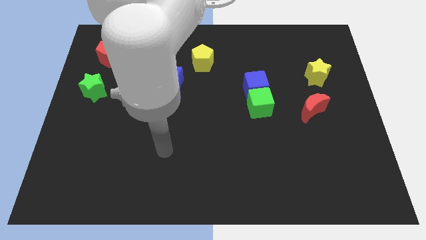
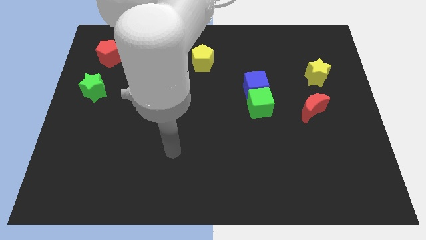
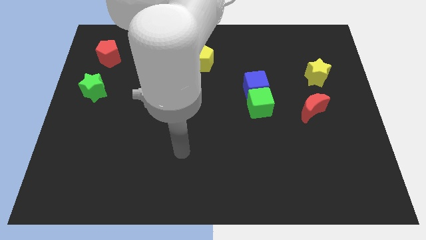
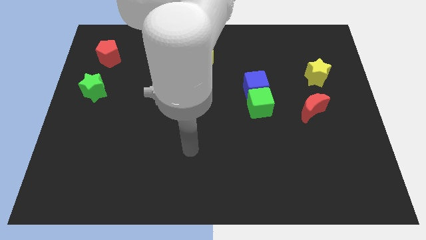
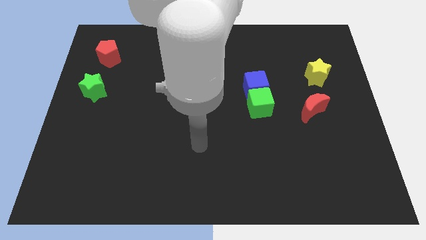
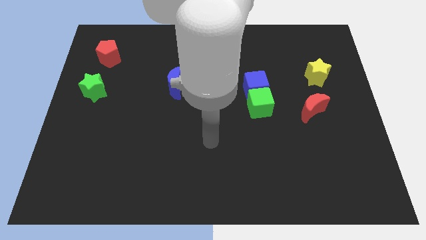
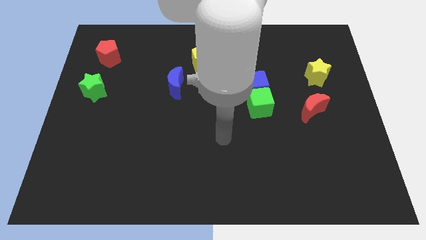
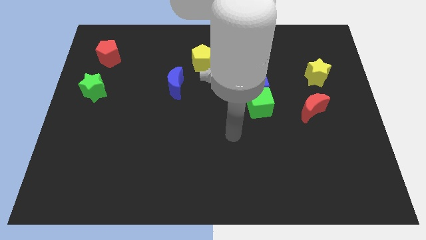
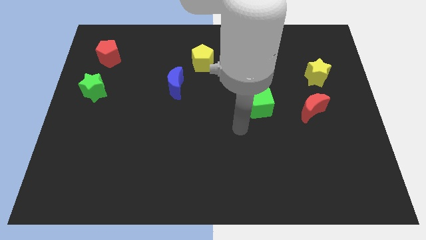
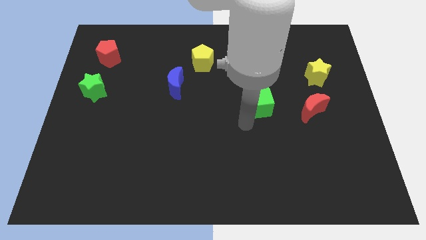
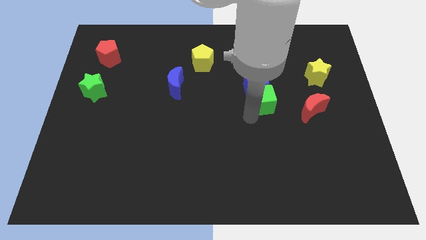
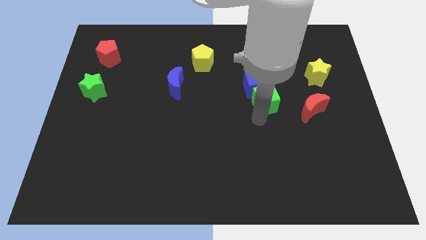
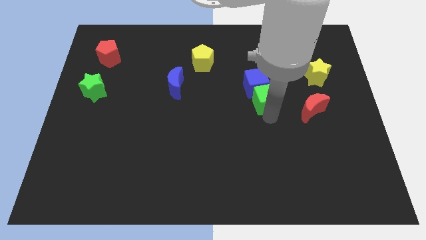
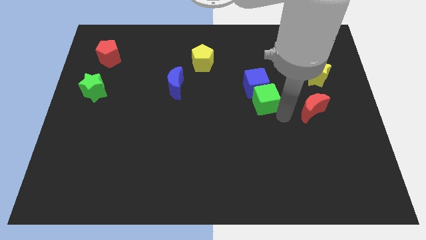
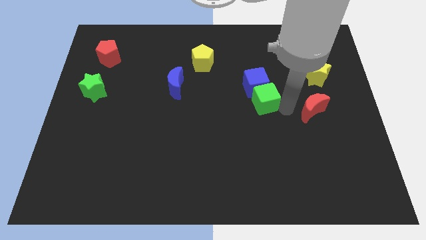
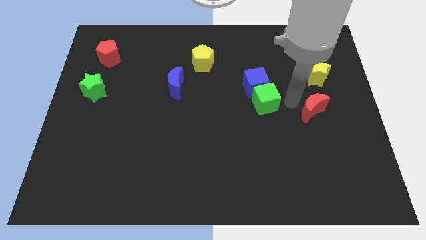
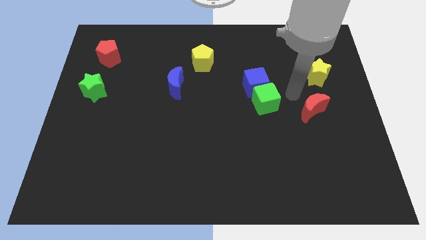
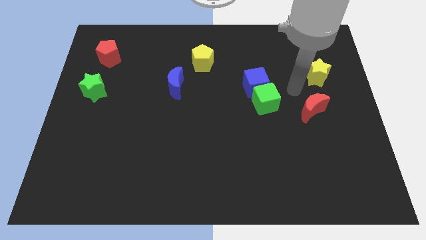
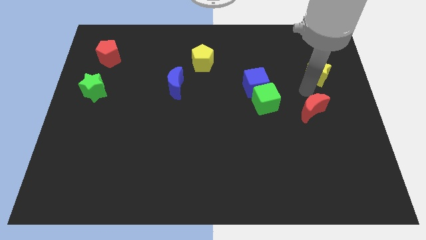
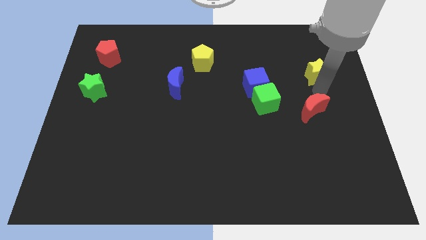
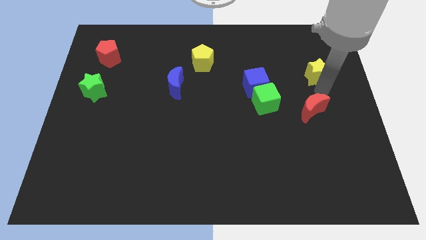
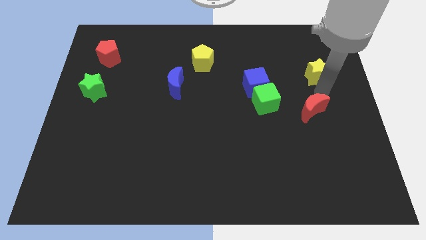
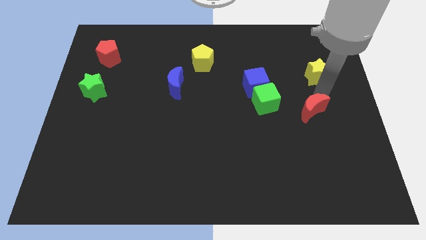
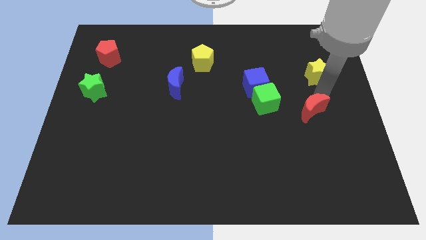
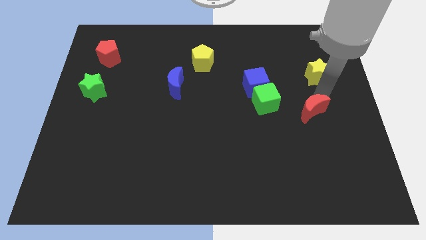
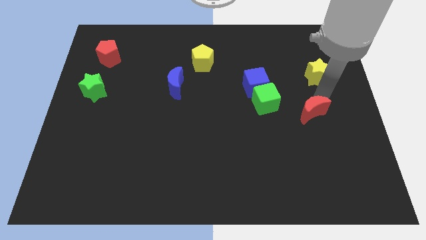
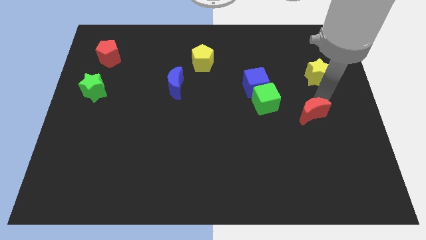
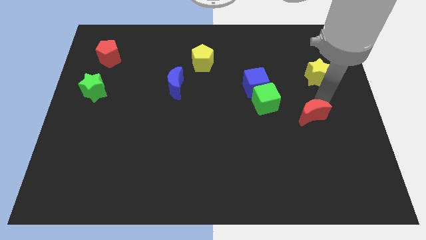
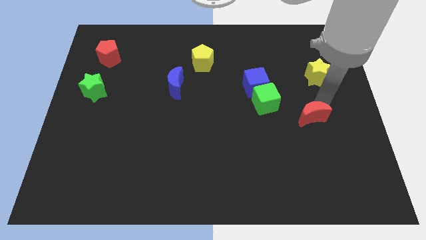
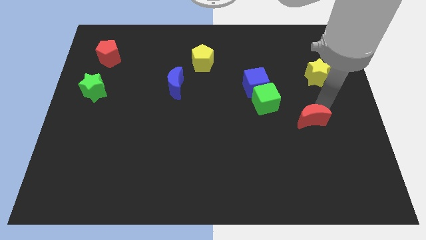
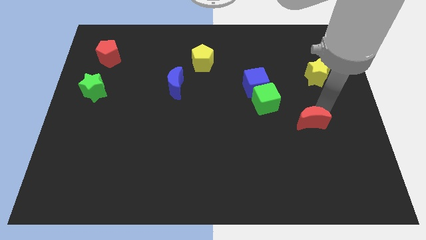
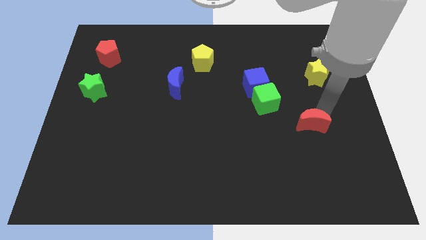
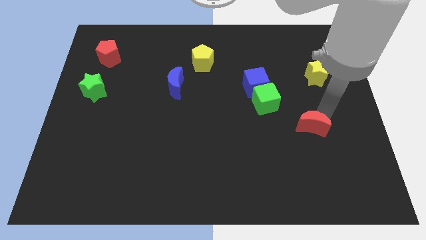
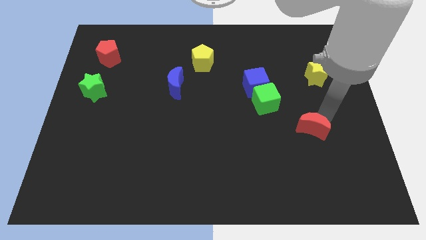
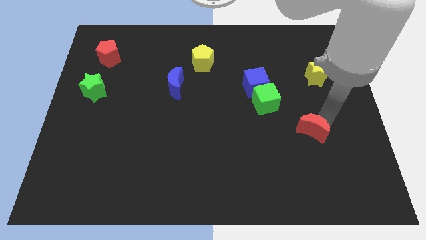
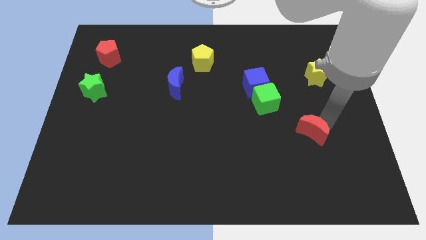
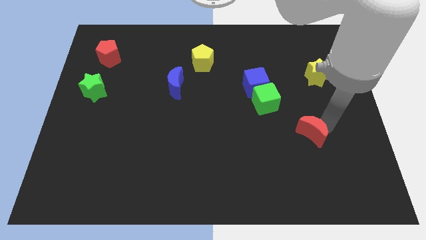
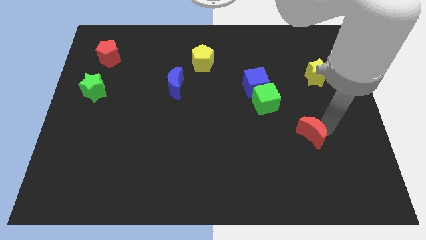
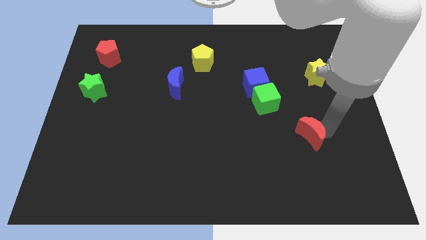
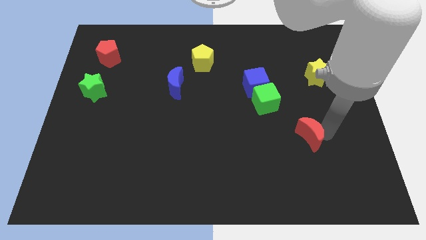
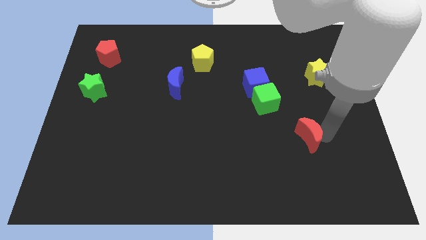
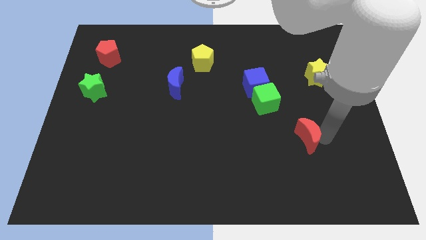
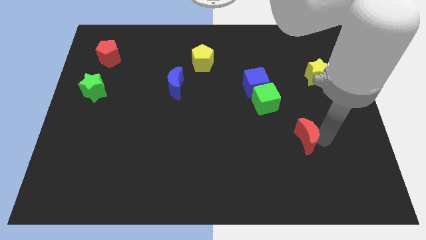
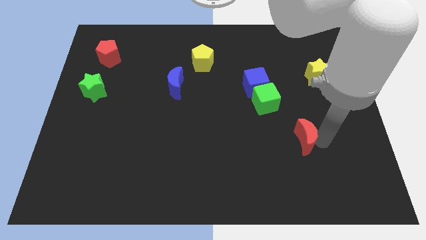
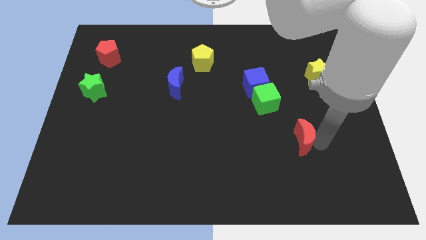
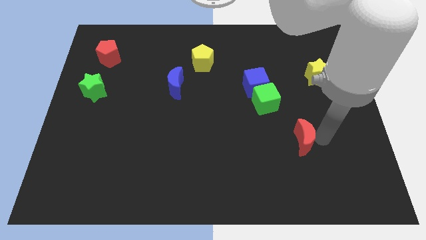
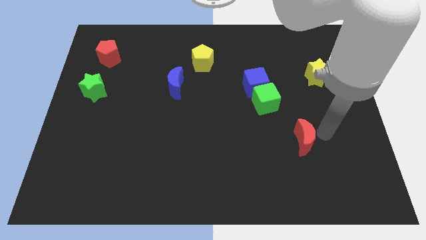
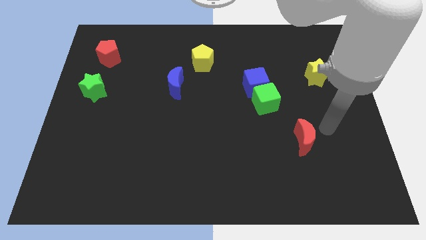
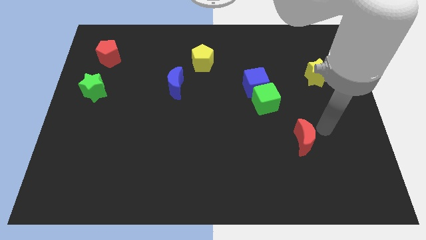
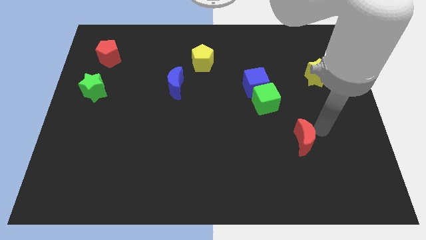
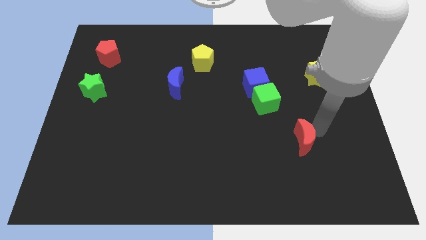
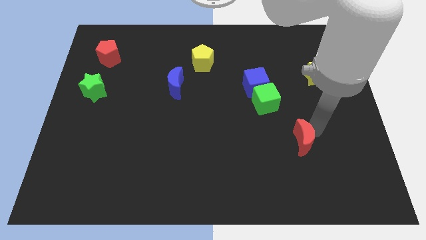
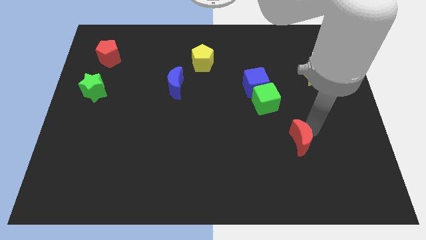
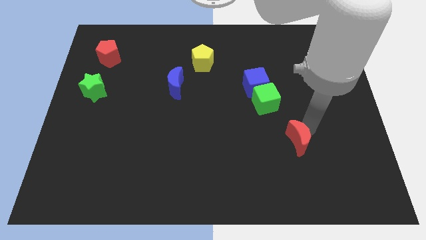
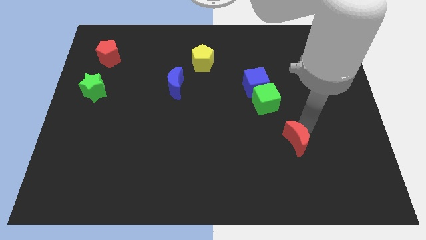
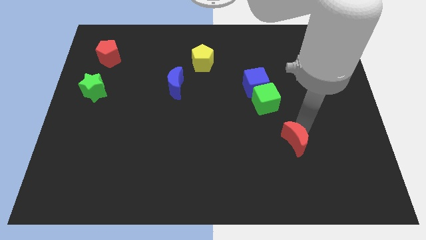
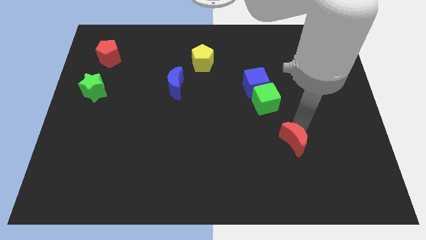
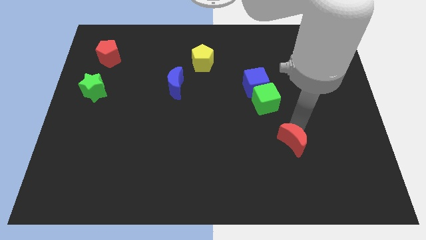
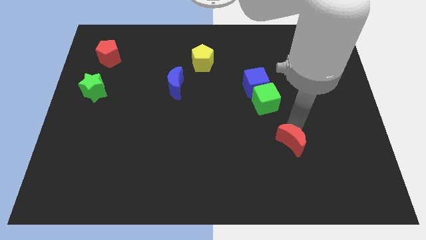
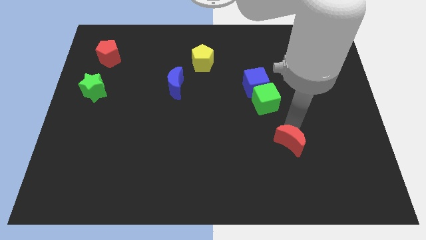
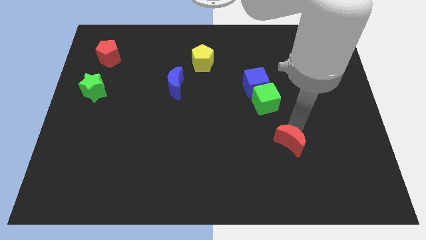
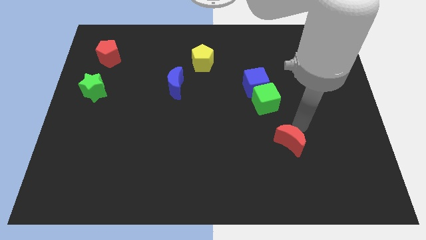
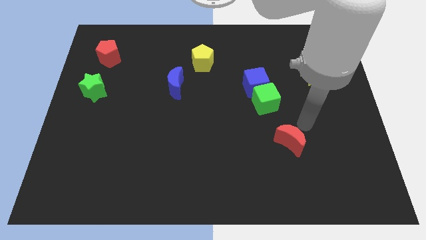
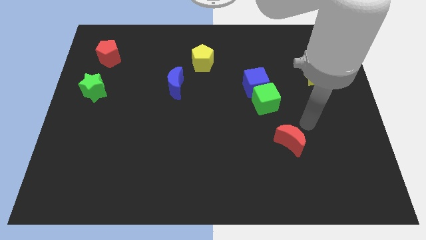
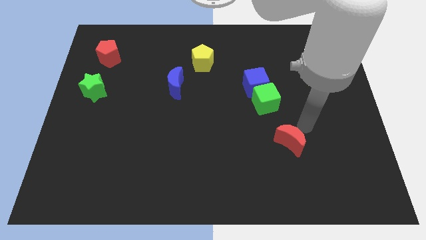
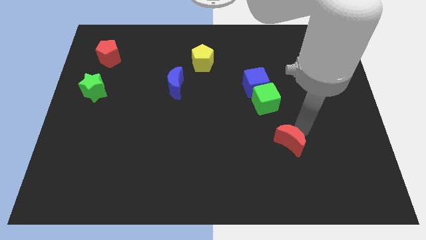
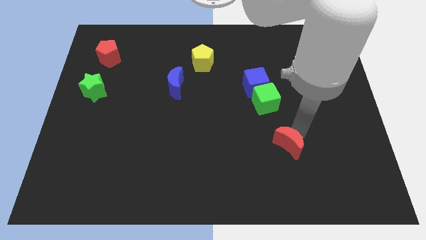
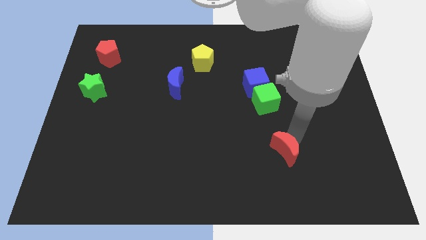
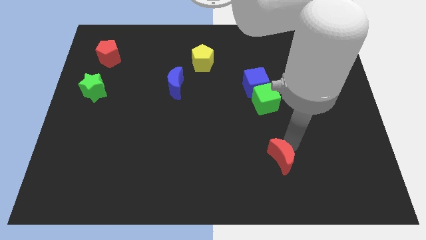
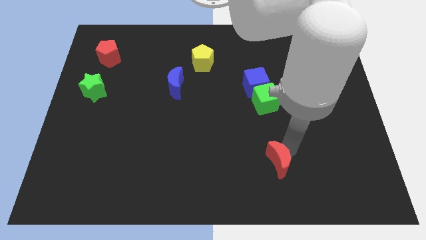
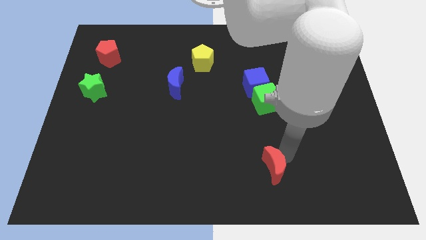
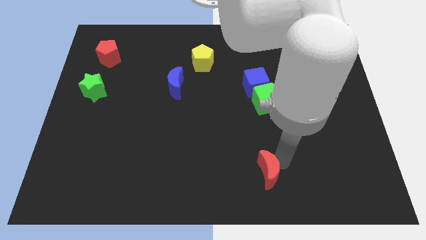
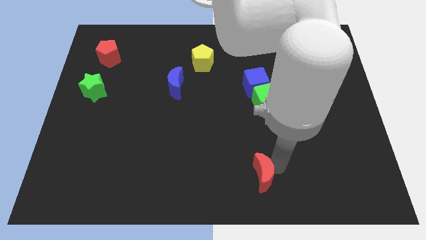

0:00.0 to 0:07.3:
put the red moon to the bottom

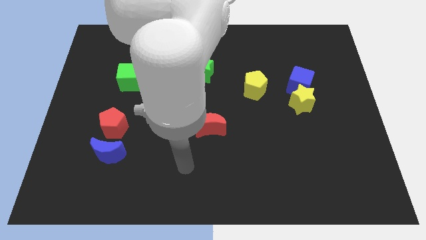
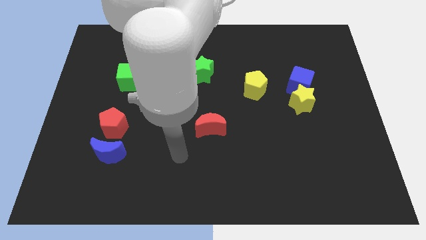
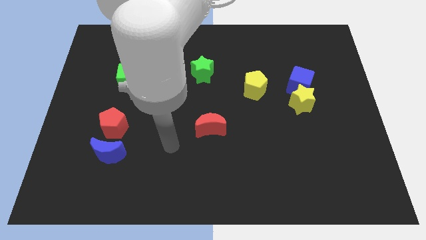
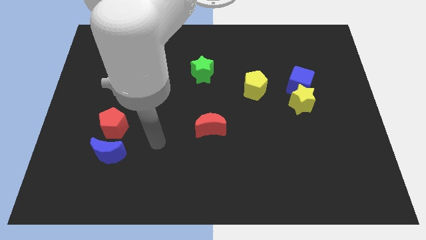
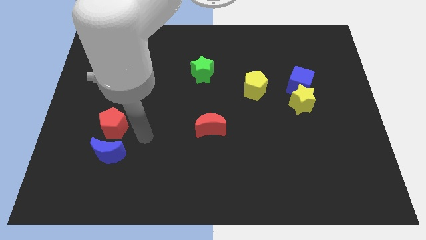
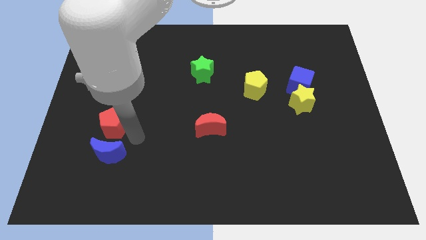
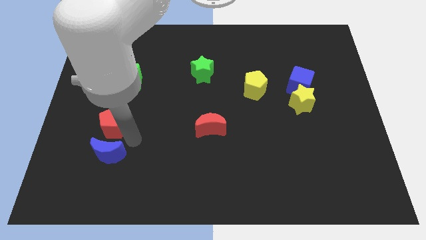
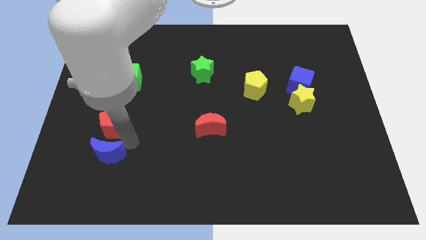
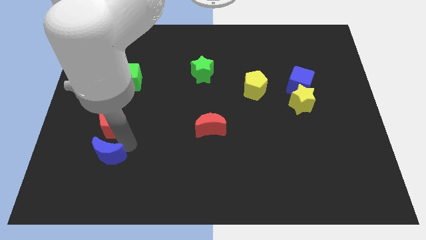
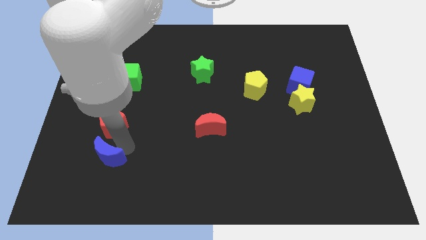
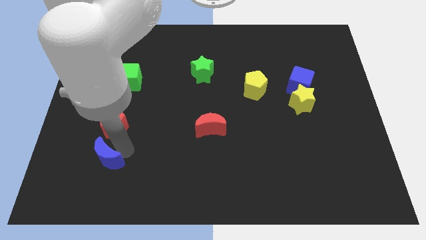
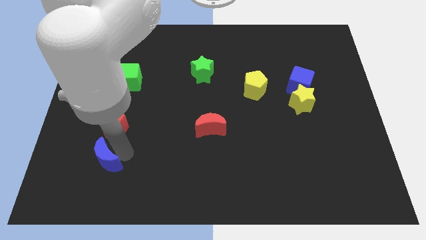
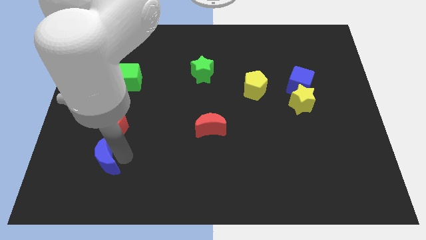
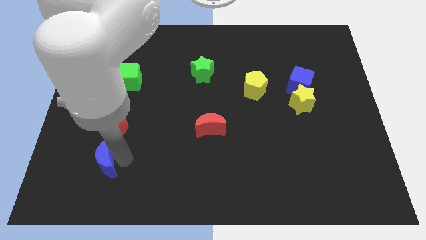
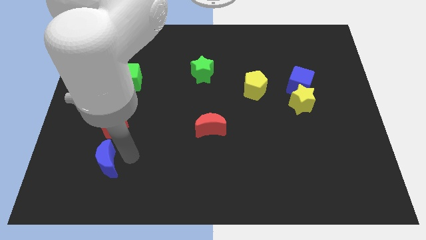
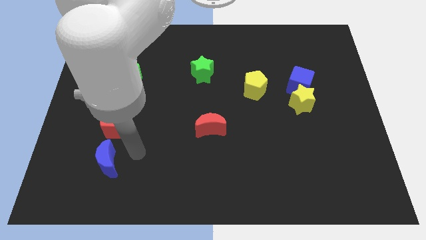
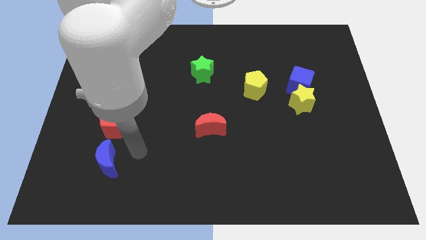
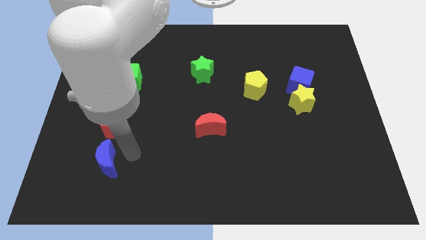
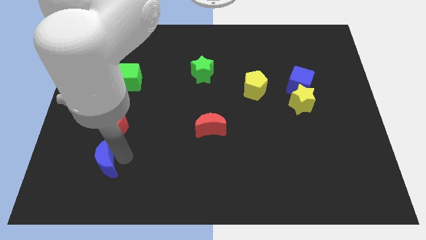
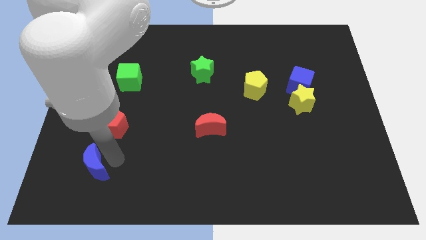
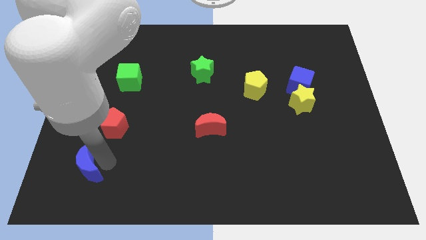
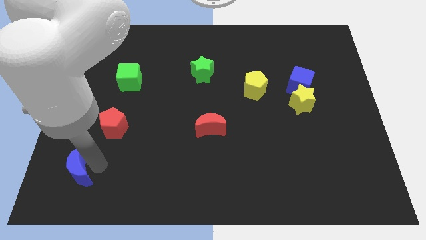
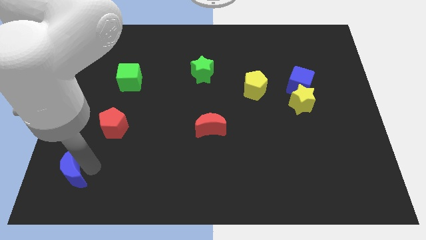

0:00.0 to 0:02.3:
push the blue moon to the bottom left of the board
